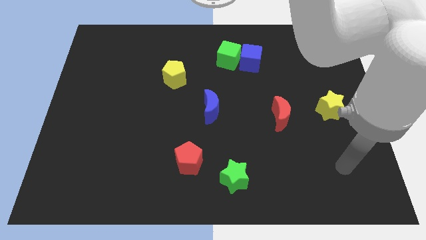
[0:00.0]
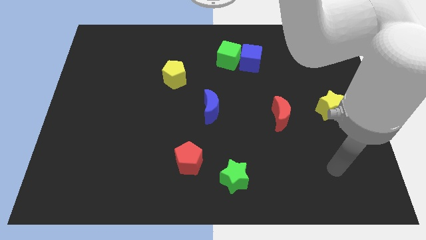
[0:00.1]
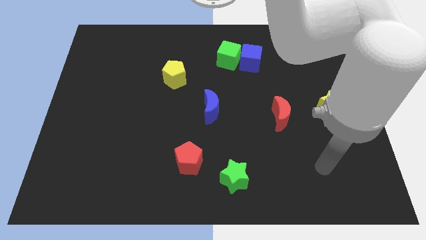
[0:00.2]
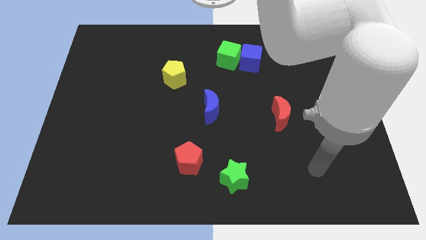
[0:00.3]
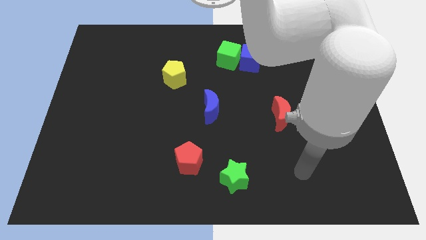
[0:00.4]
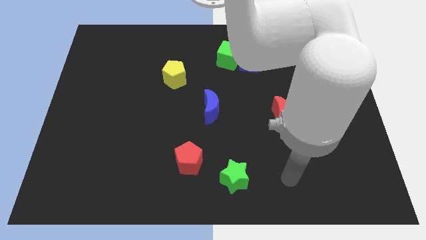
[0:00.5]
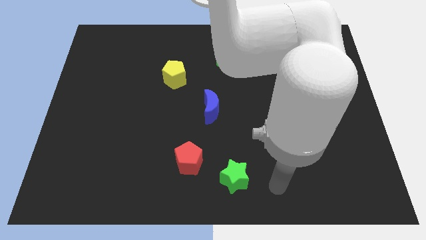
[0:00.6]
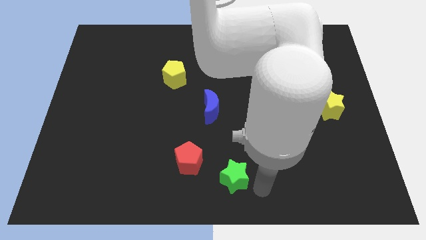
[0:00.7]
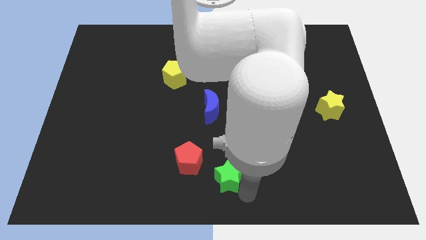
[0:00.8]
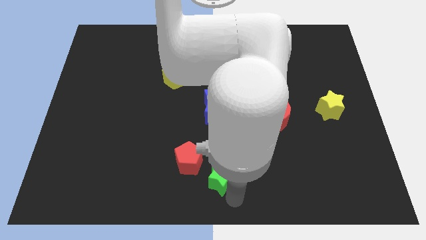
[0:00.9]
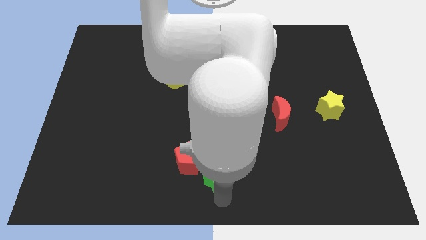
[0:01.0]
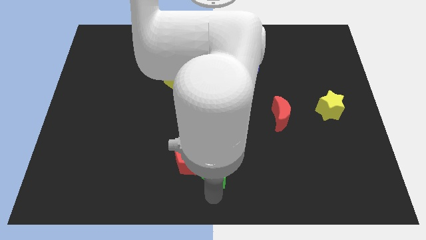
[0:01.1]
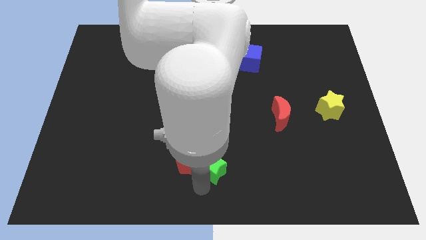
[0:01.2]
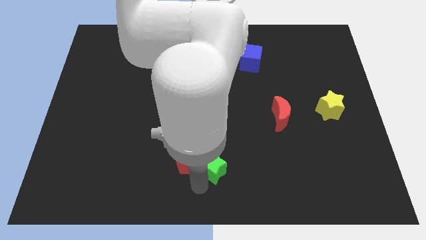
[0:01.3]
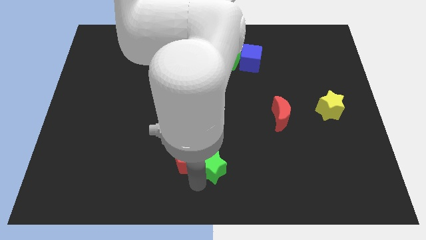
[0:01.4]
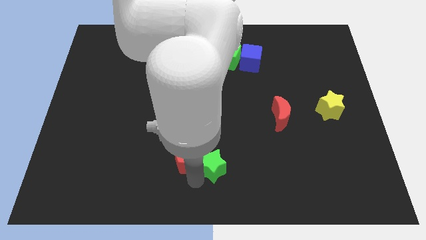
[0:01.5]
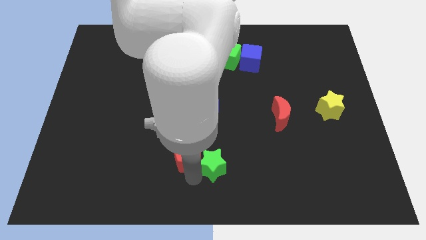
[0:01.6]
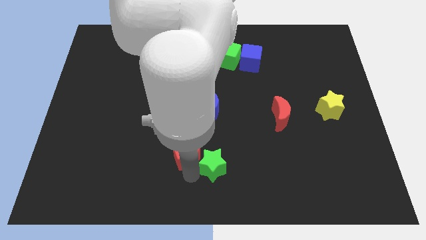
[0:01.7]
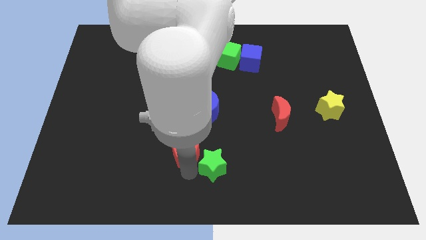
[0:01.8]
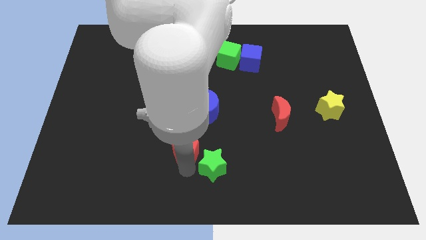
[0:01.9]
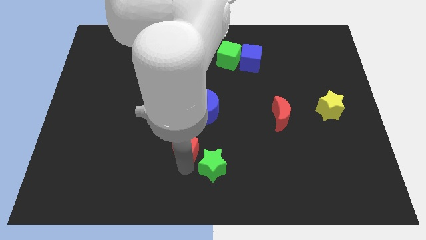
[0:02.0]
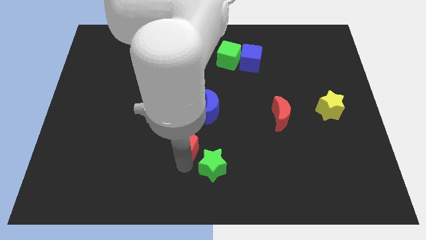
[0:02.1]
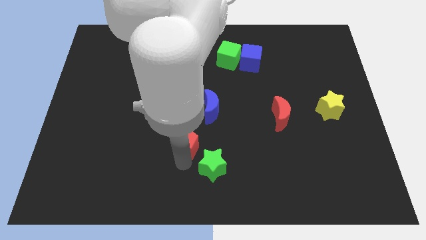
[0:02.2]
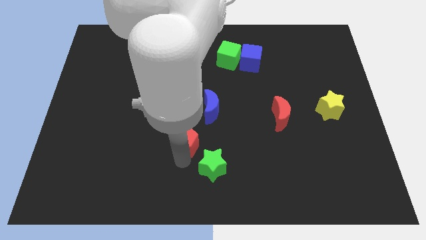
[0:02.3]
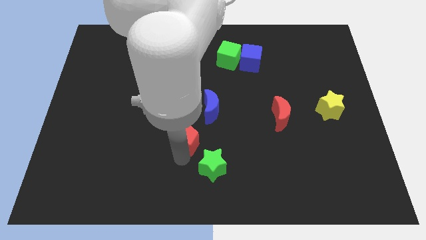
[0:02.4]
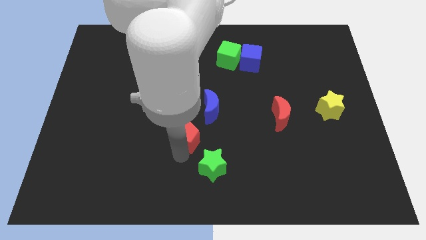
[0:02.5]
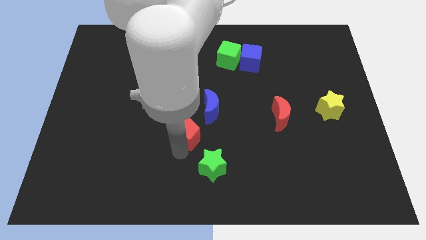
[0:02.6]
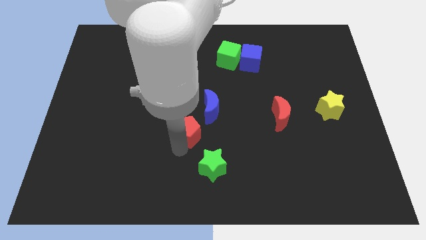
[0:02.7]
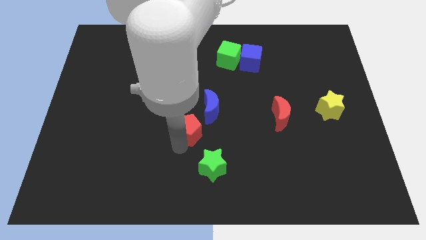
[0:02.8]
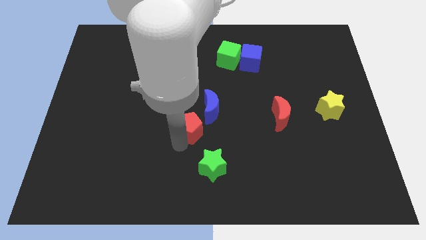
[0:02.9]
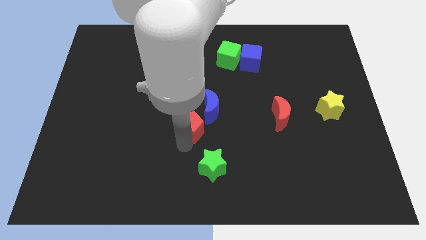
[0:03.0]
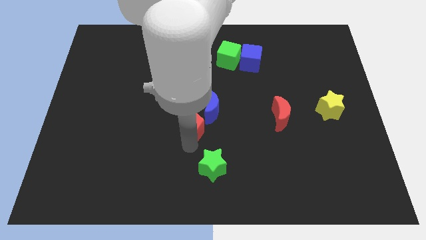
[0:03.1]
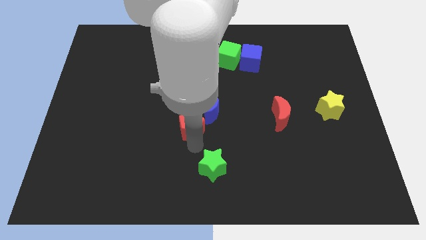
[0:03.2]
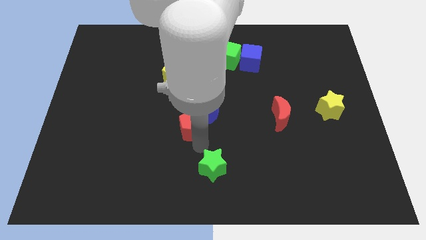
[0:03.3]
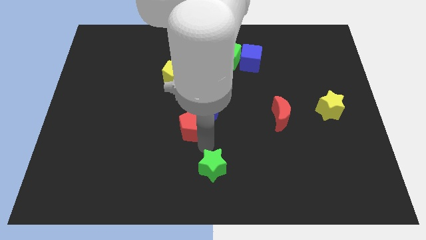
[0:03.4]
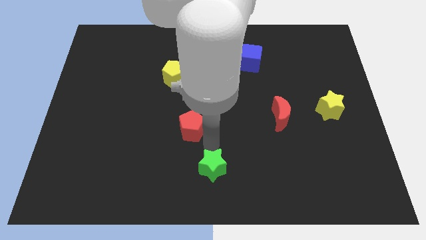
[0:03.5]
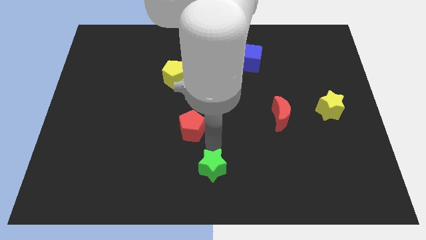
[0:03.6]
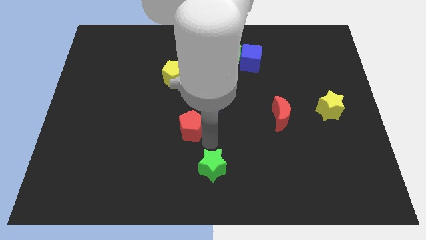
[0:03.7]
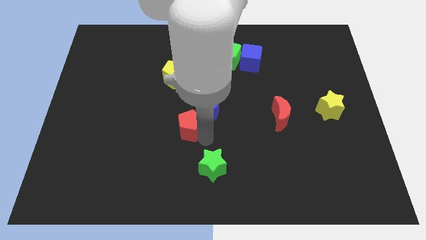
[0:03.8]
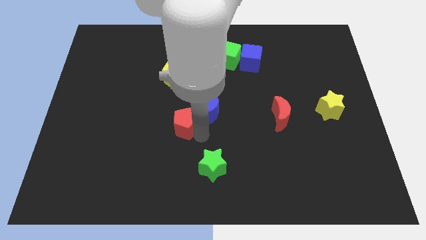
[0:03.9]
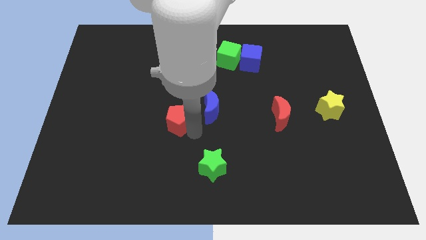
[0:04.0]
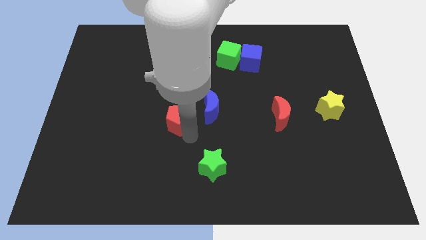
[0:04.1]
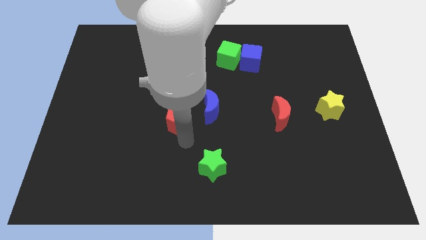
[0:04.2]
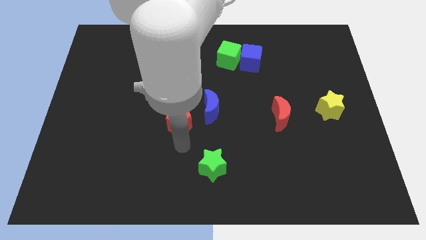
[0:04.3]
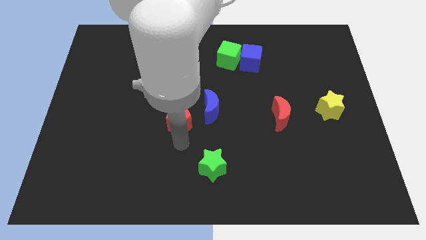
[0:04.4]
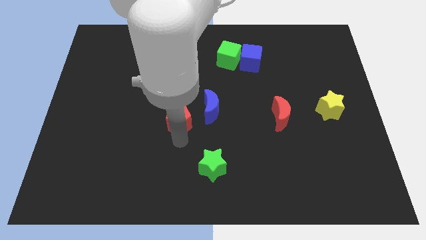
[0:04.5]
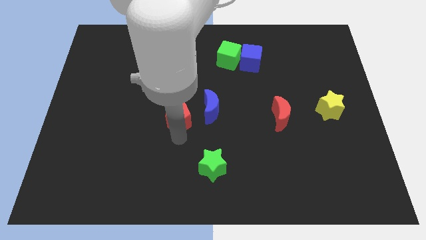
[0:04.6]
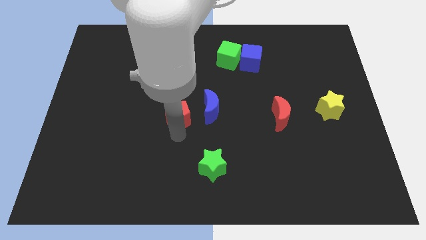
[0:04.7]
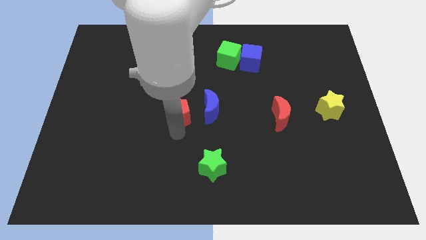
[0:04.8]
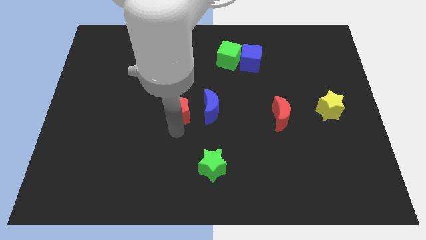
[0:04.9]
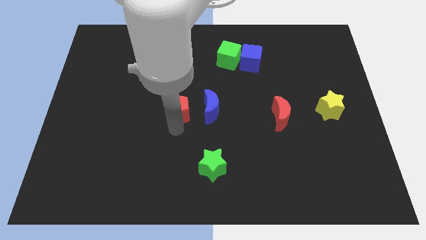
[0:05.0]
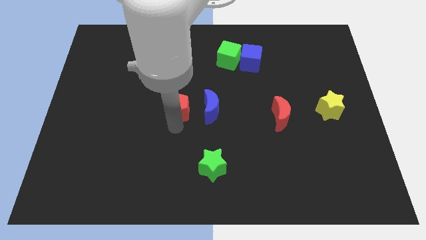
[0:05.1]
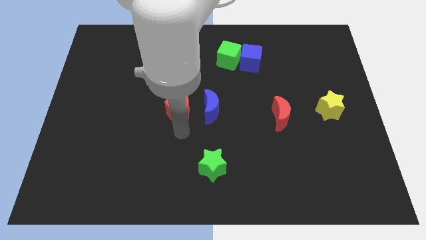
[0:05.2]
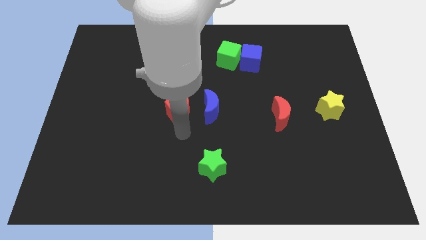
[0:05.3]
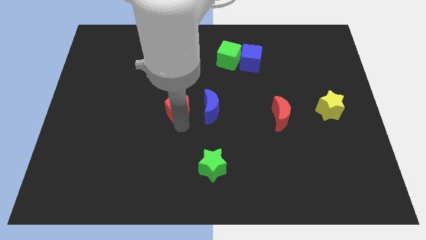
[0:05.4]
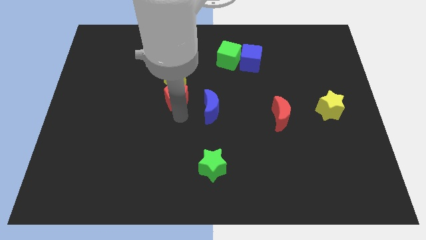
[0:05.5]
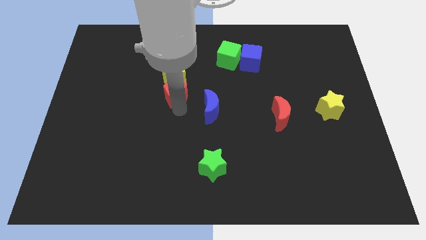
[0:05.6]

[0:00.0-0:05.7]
put the red pentagon close to the yellow pentagon
